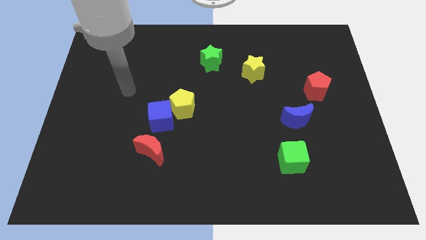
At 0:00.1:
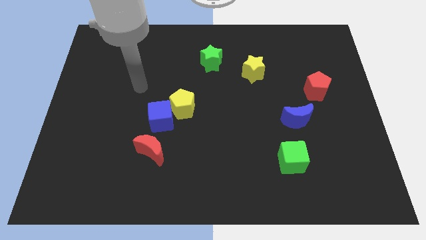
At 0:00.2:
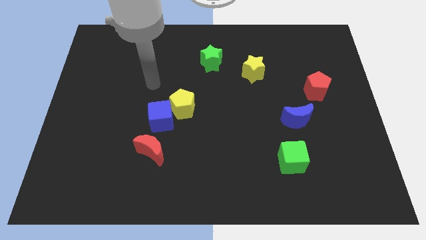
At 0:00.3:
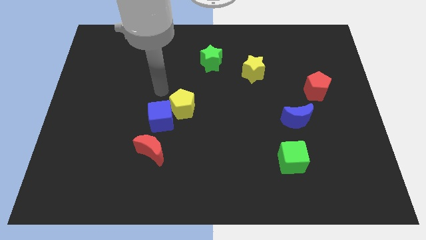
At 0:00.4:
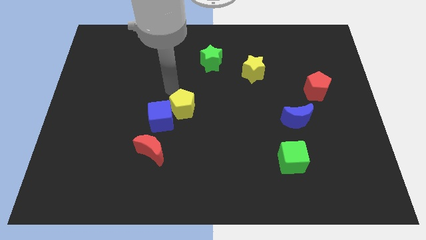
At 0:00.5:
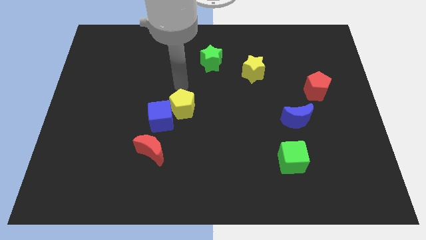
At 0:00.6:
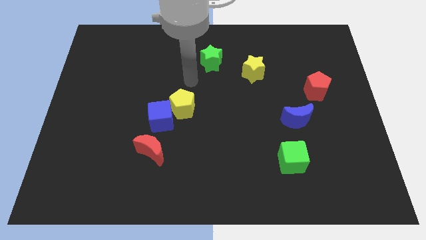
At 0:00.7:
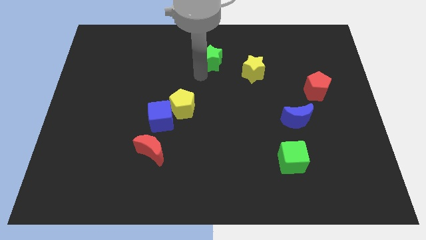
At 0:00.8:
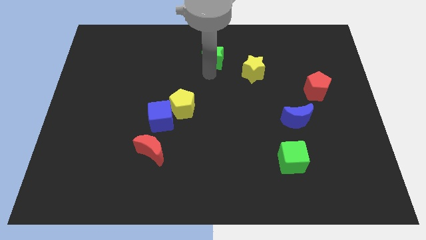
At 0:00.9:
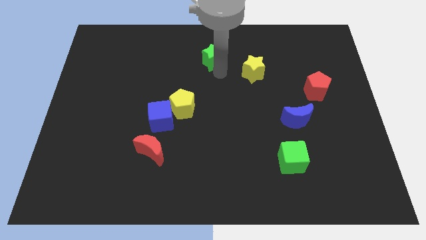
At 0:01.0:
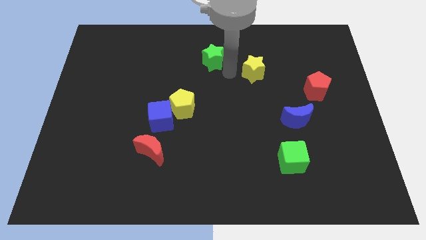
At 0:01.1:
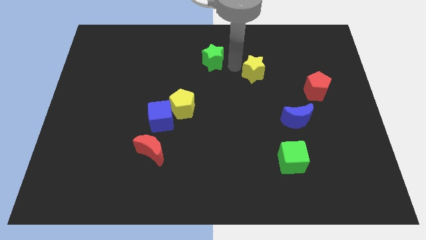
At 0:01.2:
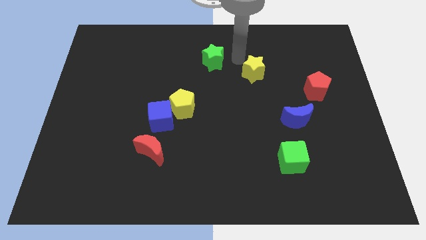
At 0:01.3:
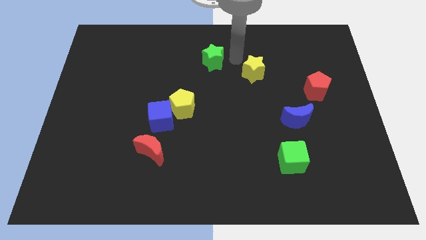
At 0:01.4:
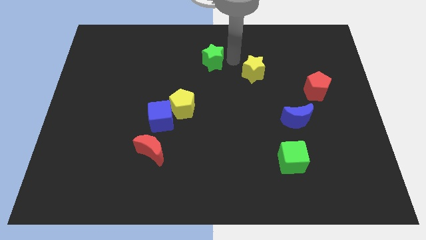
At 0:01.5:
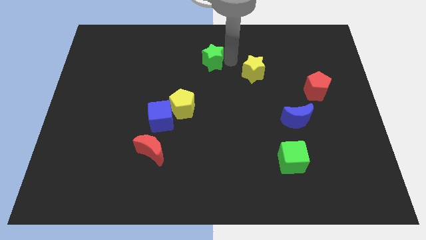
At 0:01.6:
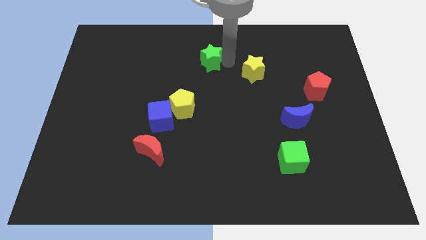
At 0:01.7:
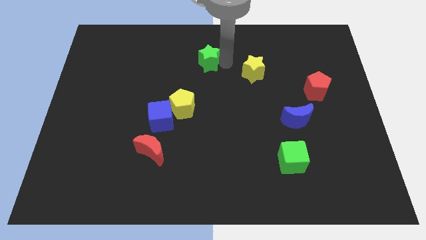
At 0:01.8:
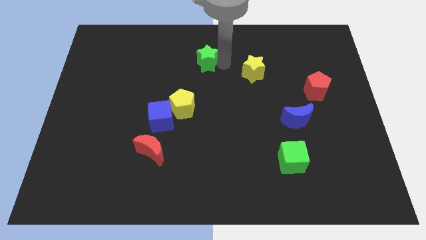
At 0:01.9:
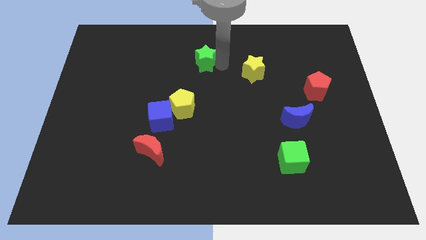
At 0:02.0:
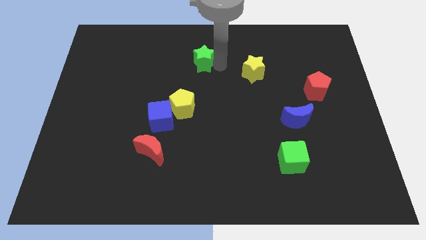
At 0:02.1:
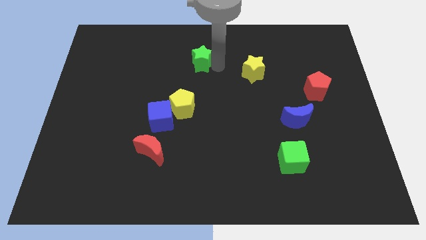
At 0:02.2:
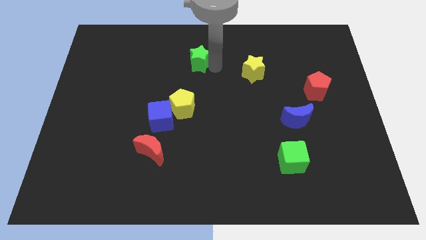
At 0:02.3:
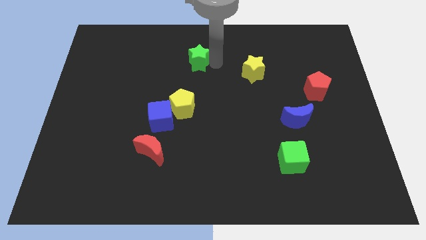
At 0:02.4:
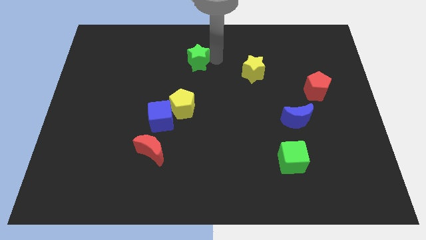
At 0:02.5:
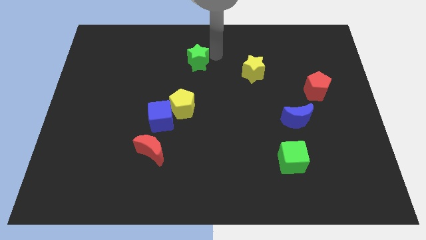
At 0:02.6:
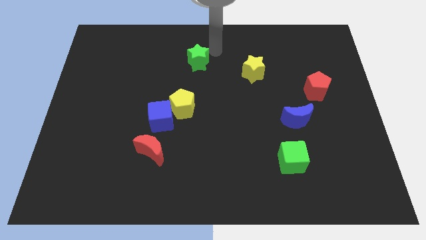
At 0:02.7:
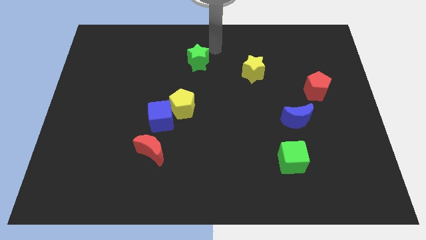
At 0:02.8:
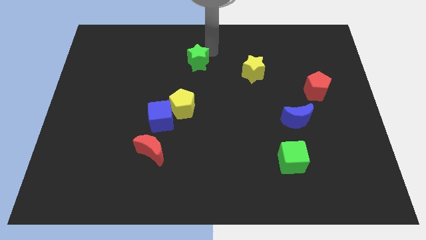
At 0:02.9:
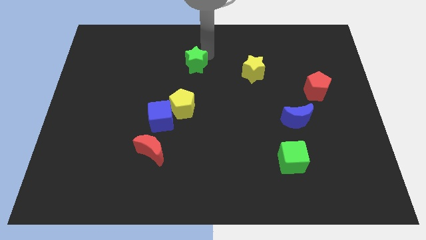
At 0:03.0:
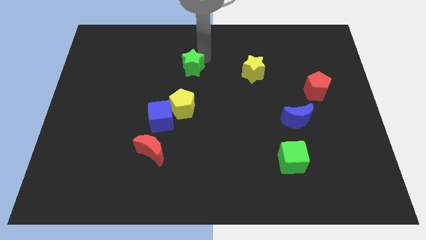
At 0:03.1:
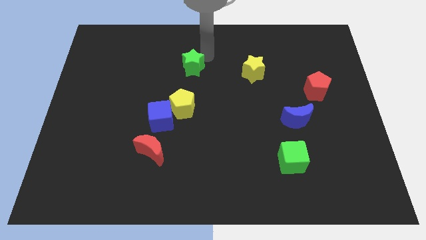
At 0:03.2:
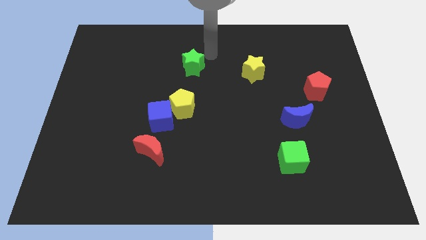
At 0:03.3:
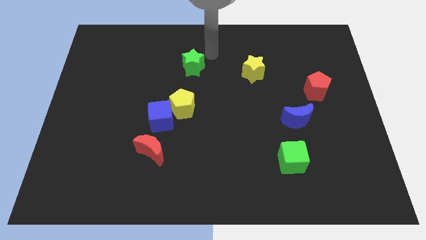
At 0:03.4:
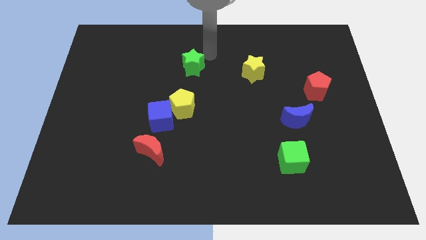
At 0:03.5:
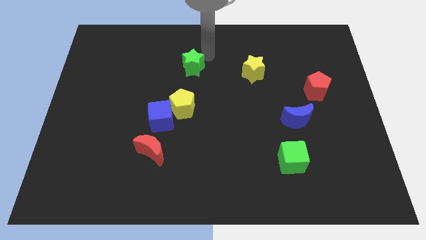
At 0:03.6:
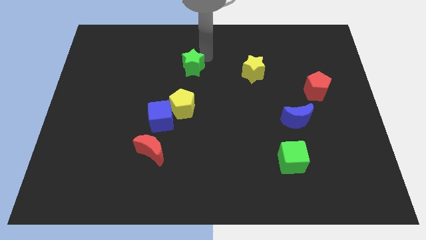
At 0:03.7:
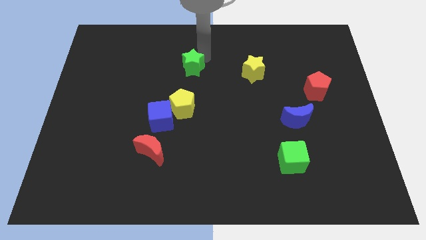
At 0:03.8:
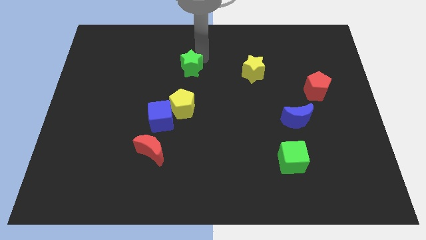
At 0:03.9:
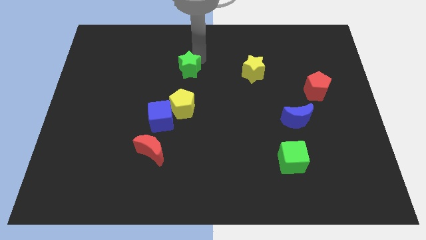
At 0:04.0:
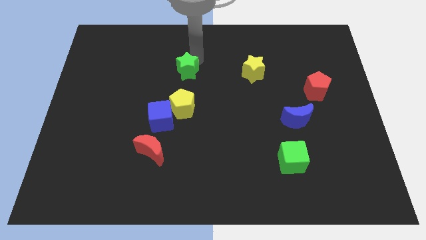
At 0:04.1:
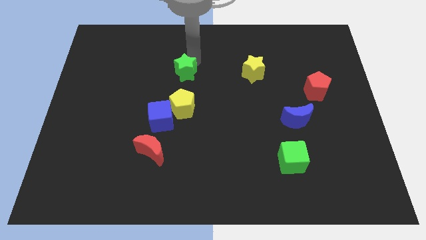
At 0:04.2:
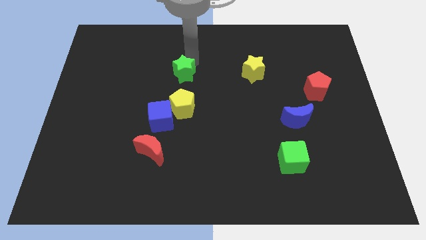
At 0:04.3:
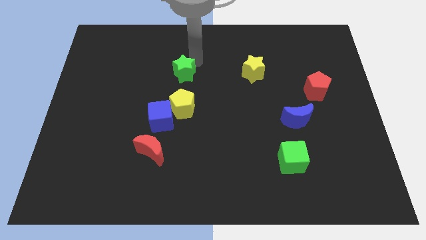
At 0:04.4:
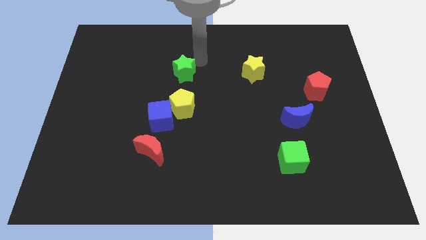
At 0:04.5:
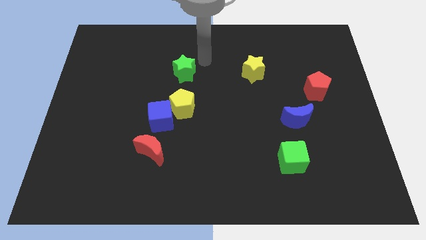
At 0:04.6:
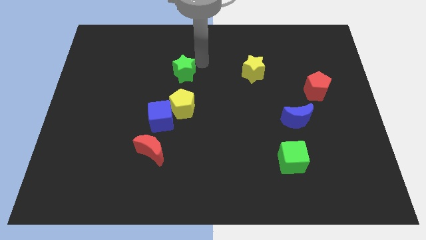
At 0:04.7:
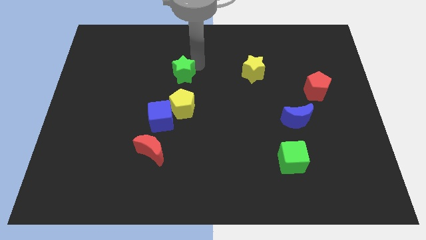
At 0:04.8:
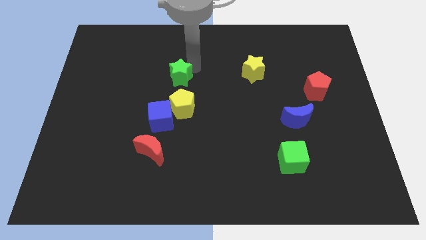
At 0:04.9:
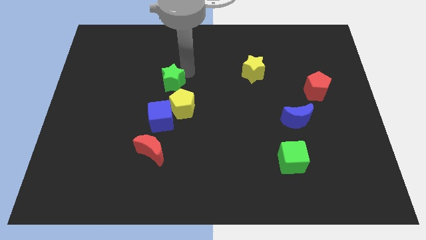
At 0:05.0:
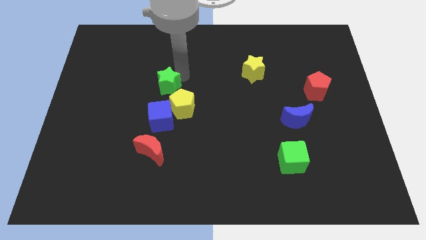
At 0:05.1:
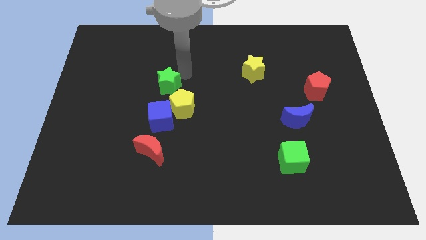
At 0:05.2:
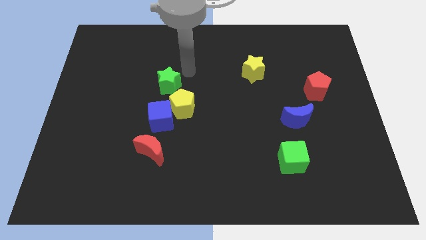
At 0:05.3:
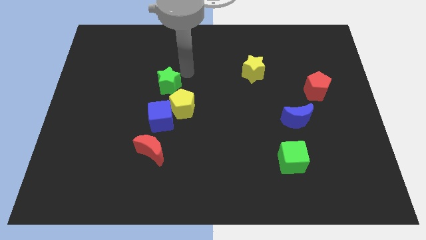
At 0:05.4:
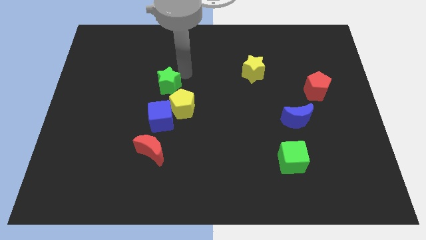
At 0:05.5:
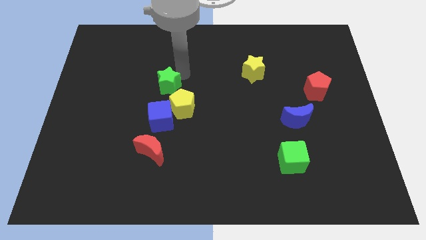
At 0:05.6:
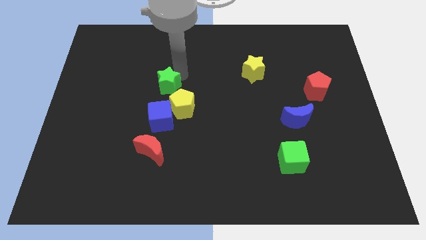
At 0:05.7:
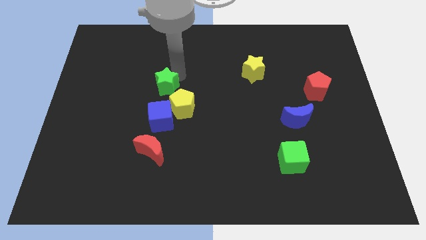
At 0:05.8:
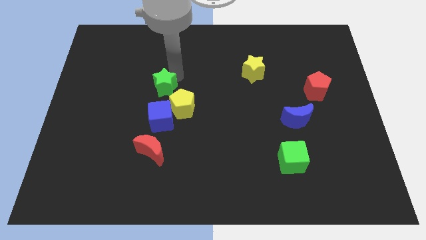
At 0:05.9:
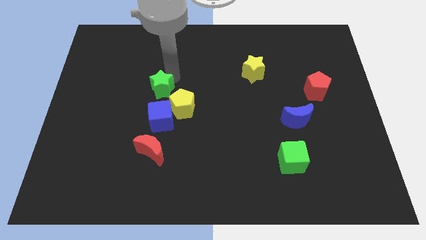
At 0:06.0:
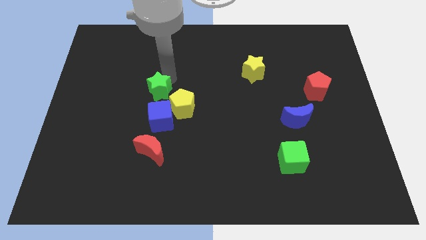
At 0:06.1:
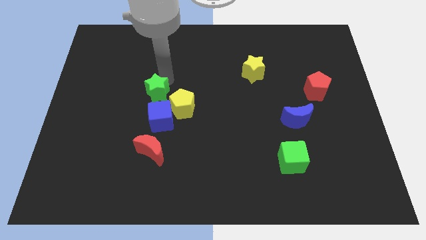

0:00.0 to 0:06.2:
push the green star left of the yellow pentagon

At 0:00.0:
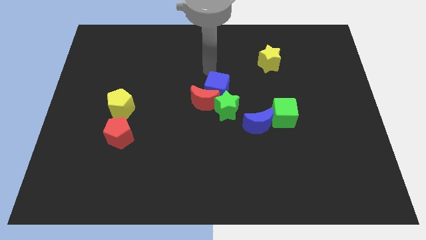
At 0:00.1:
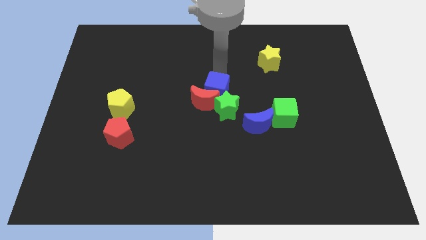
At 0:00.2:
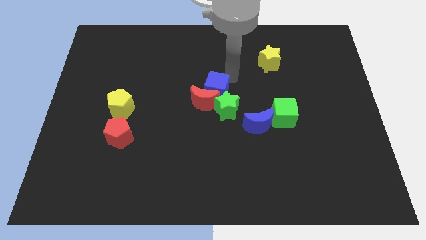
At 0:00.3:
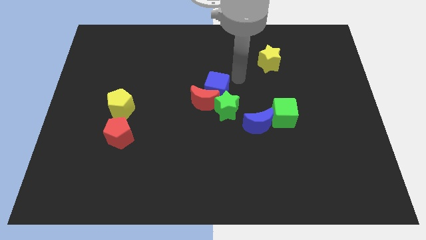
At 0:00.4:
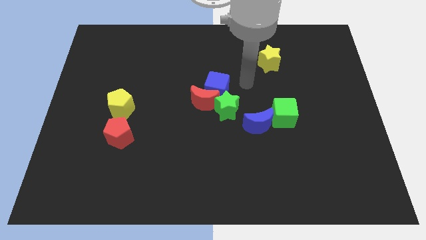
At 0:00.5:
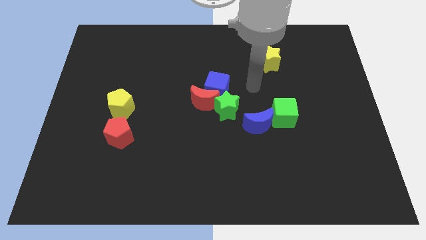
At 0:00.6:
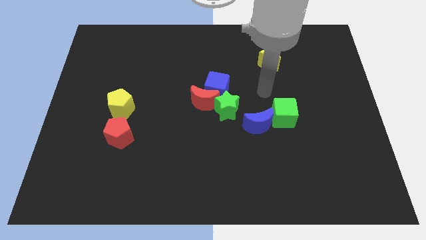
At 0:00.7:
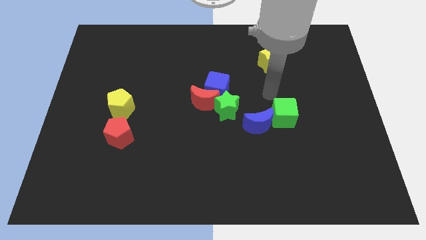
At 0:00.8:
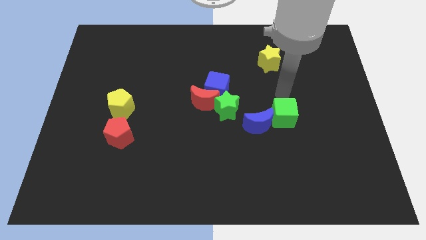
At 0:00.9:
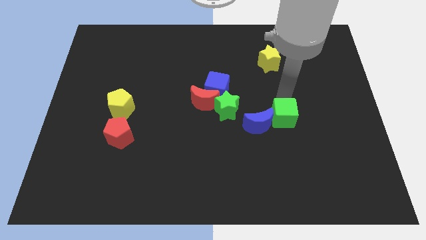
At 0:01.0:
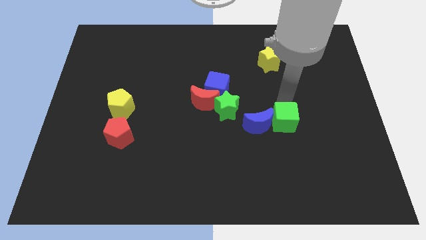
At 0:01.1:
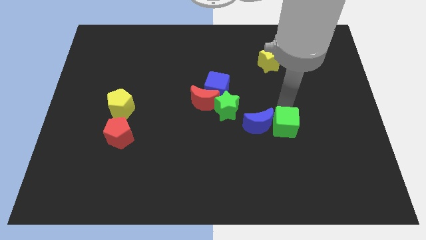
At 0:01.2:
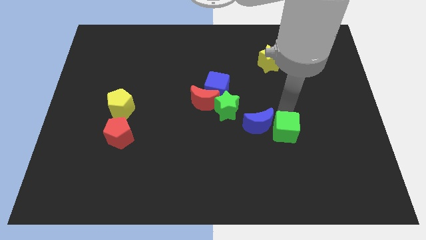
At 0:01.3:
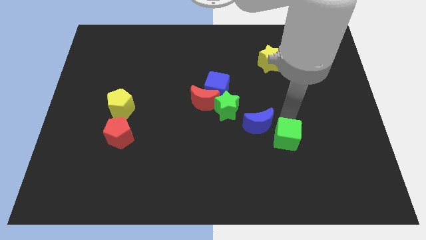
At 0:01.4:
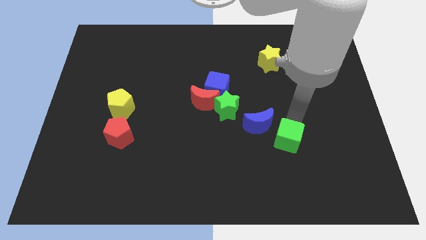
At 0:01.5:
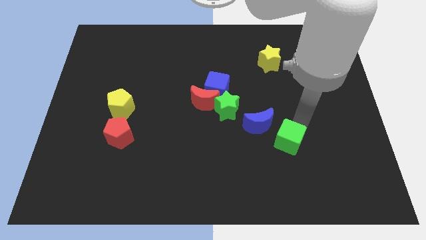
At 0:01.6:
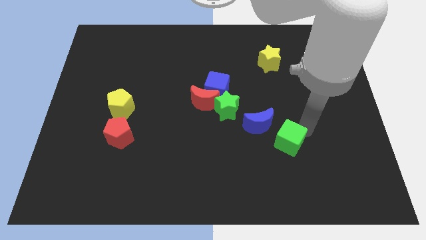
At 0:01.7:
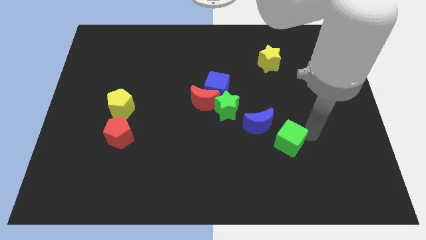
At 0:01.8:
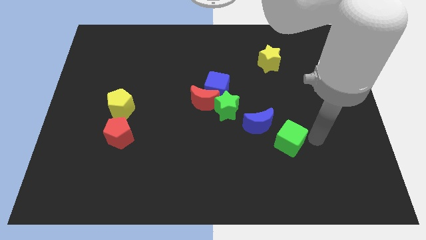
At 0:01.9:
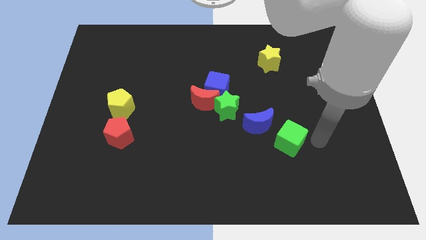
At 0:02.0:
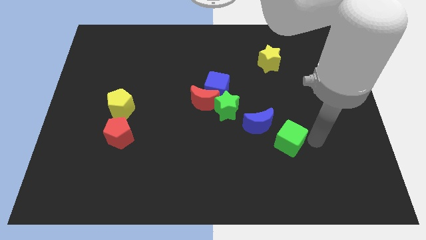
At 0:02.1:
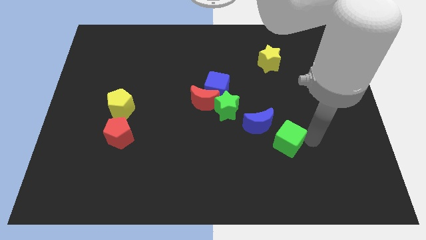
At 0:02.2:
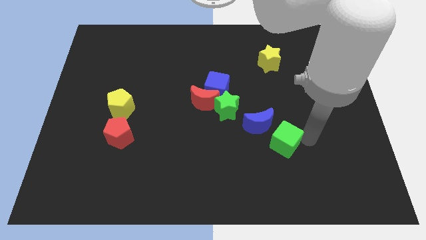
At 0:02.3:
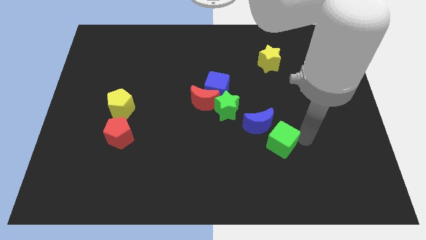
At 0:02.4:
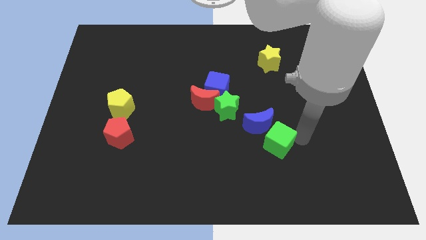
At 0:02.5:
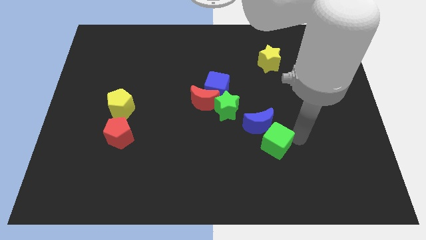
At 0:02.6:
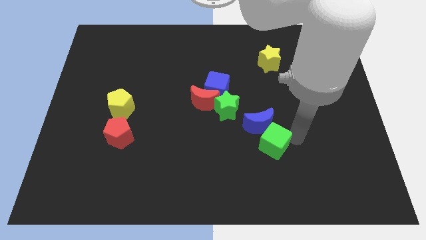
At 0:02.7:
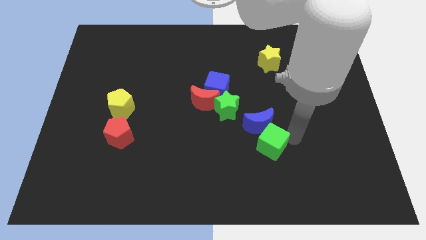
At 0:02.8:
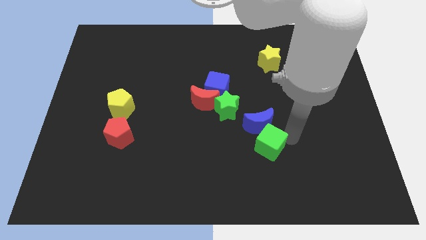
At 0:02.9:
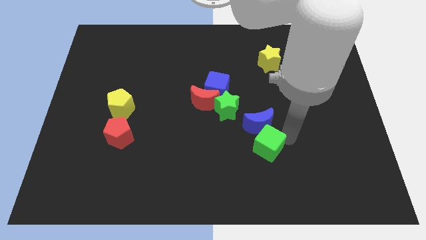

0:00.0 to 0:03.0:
put the green cube diagonally down and to the left of the blue moon
